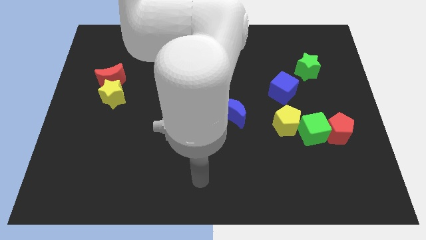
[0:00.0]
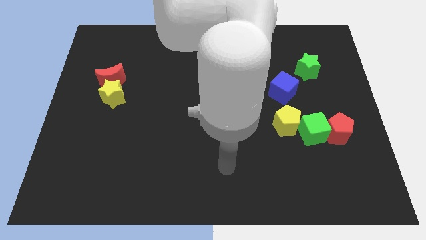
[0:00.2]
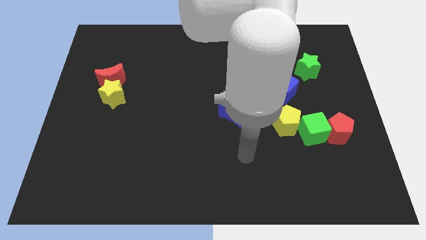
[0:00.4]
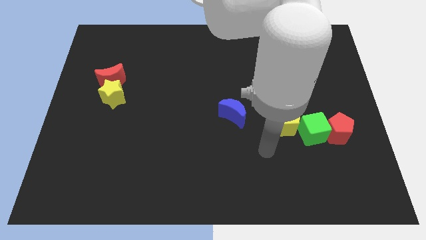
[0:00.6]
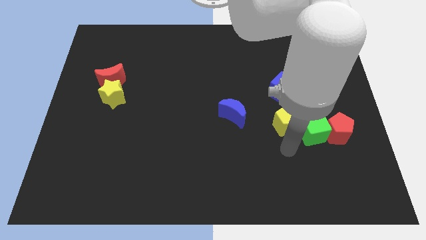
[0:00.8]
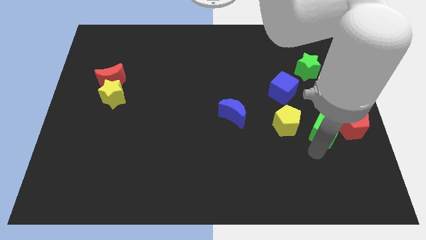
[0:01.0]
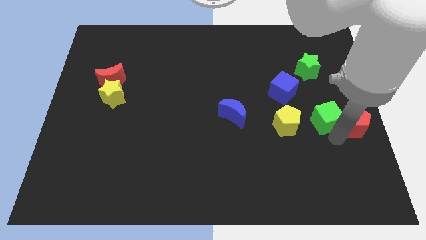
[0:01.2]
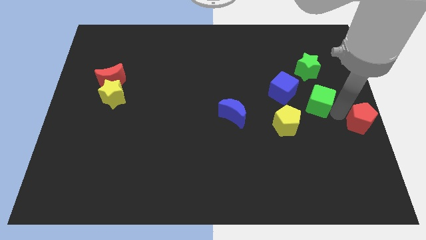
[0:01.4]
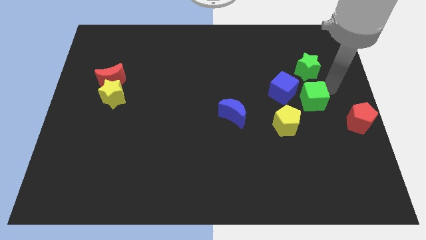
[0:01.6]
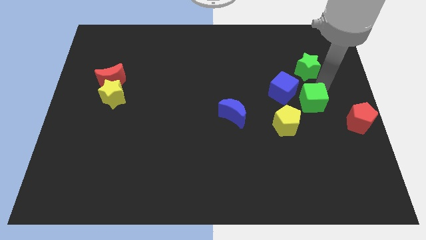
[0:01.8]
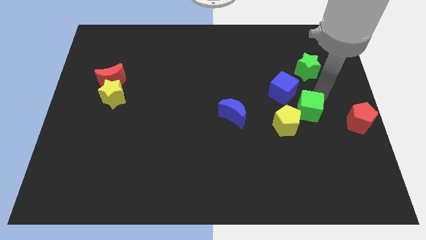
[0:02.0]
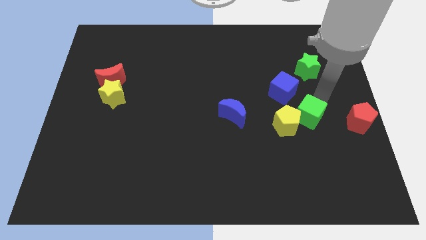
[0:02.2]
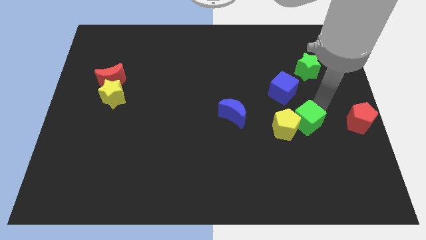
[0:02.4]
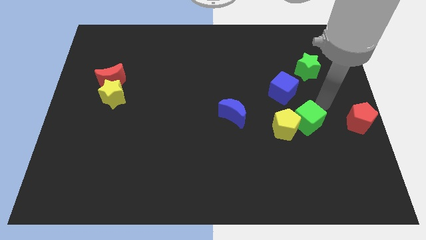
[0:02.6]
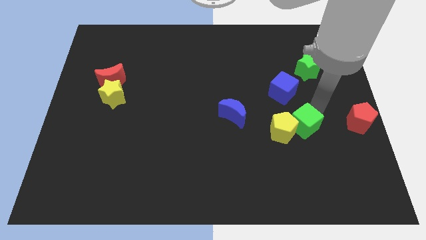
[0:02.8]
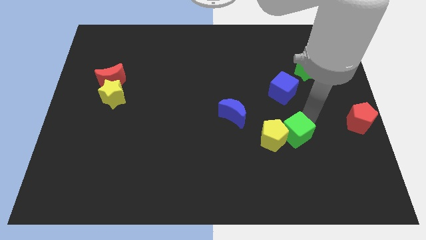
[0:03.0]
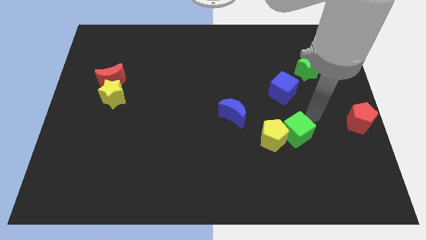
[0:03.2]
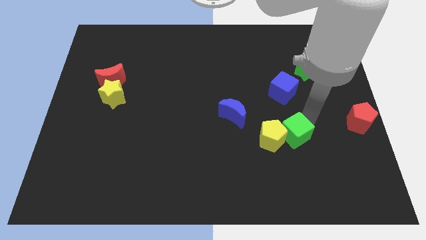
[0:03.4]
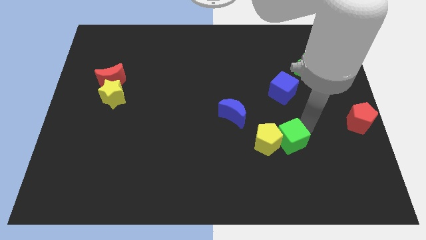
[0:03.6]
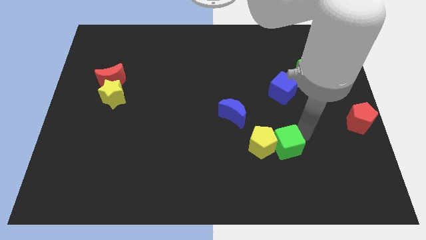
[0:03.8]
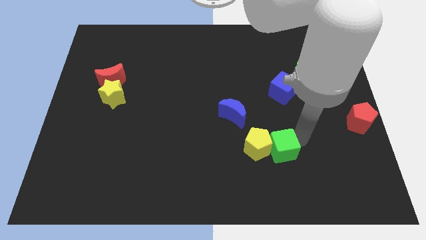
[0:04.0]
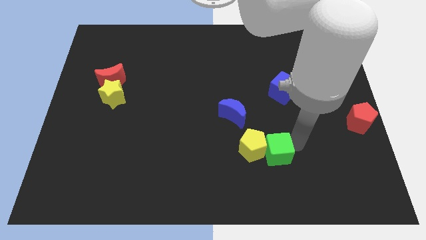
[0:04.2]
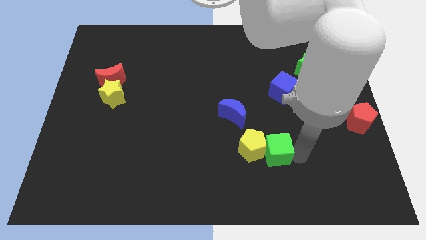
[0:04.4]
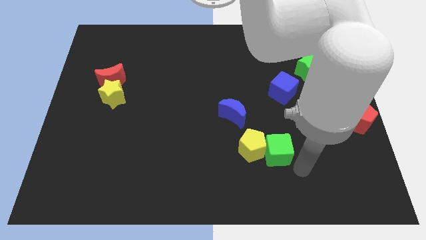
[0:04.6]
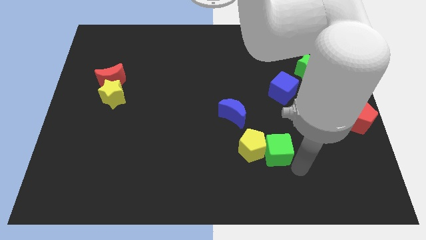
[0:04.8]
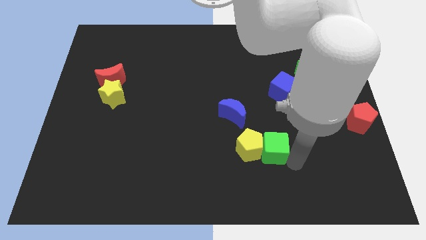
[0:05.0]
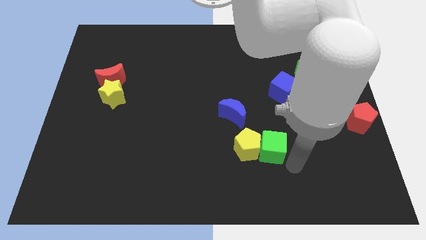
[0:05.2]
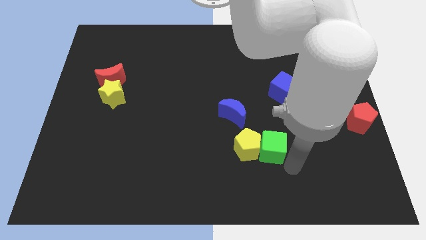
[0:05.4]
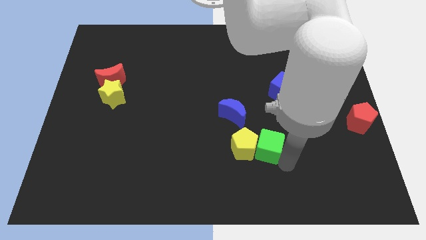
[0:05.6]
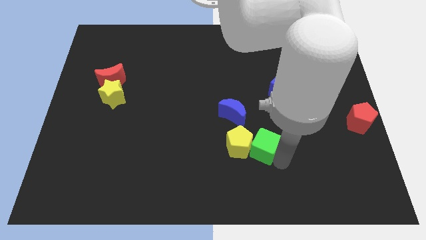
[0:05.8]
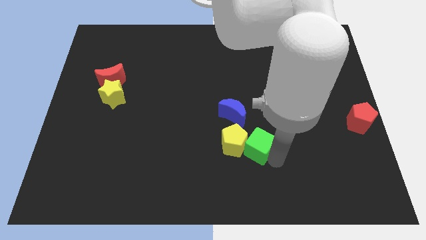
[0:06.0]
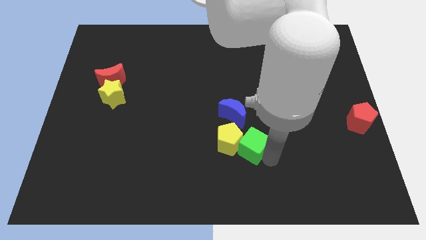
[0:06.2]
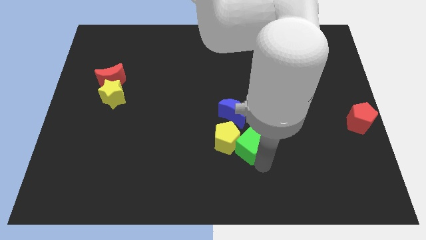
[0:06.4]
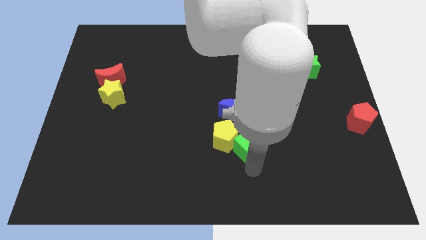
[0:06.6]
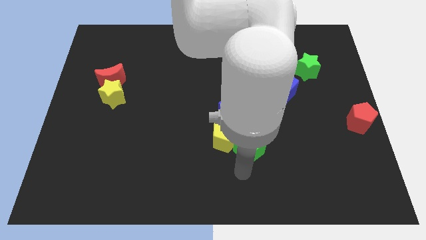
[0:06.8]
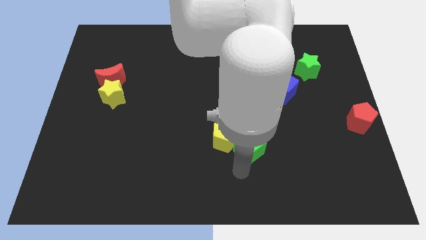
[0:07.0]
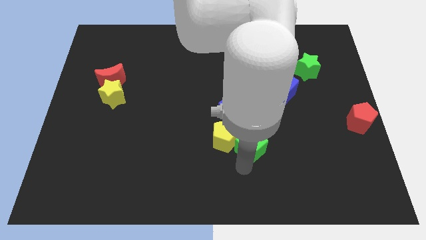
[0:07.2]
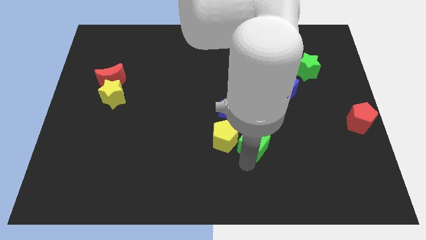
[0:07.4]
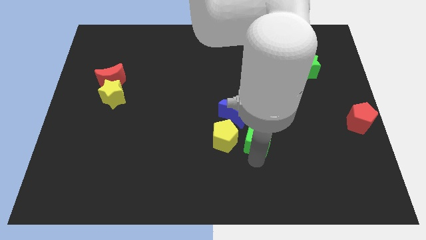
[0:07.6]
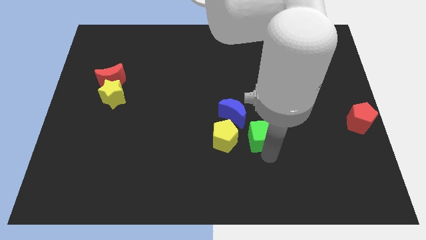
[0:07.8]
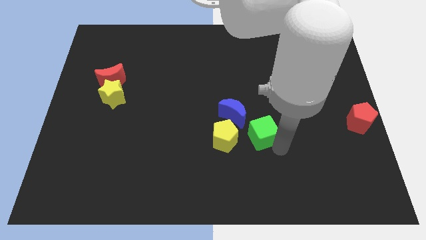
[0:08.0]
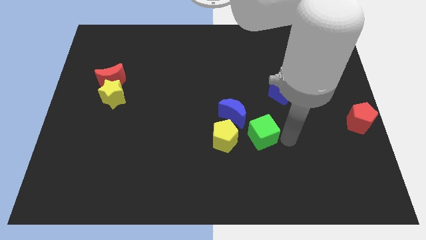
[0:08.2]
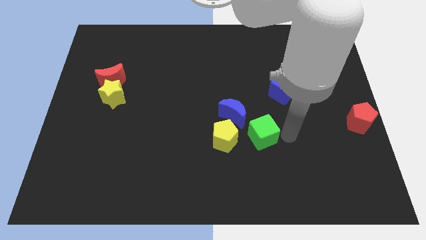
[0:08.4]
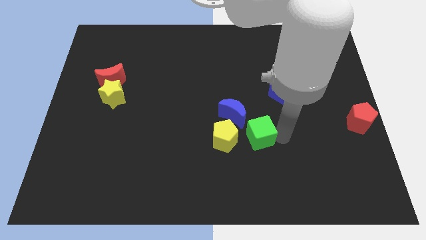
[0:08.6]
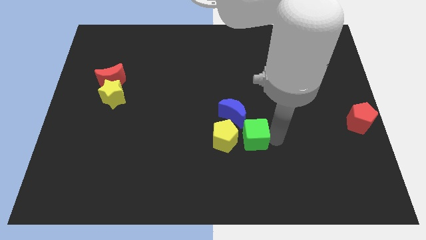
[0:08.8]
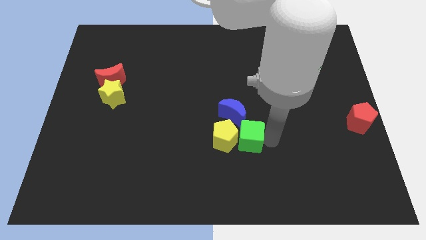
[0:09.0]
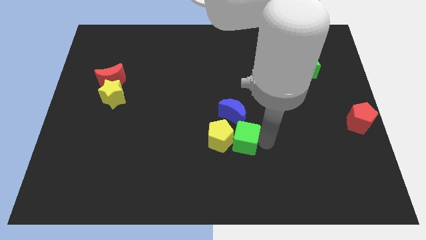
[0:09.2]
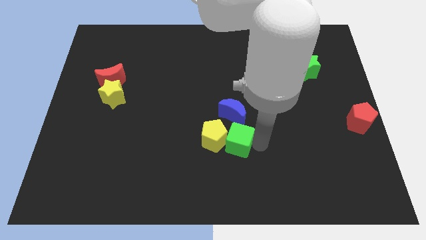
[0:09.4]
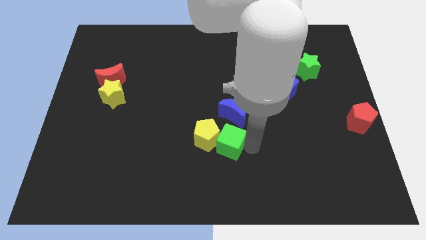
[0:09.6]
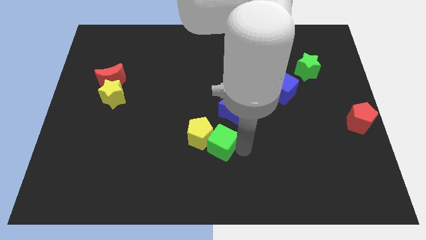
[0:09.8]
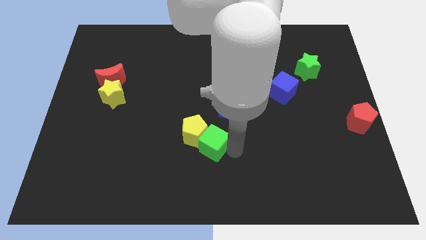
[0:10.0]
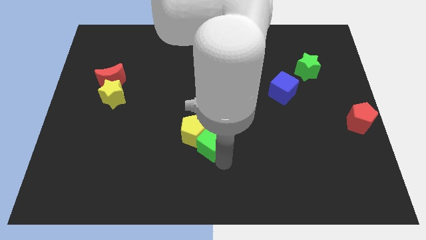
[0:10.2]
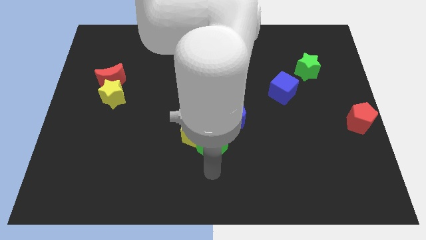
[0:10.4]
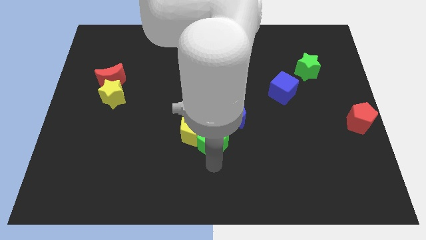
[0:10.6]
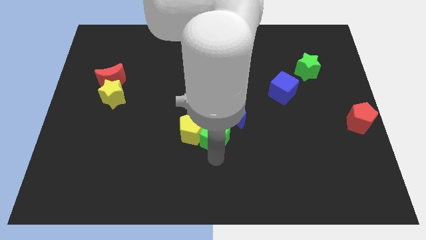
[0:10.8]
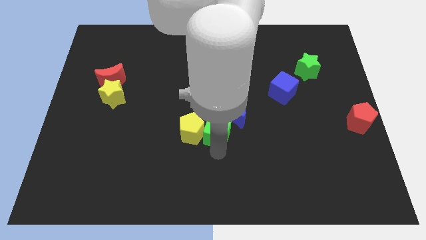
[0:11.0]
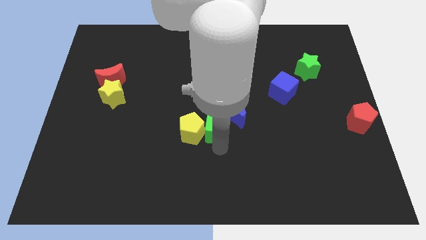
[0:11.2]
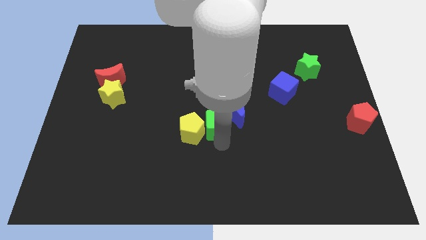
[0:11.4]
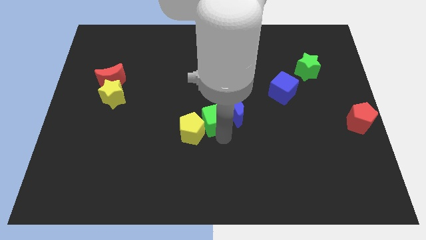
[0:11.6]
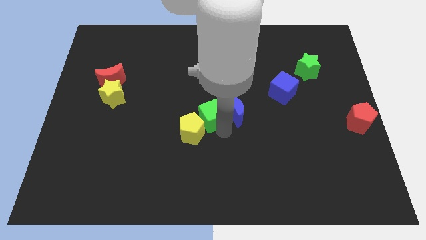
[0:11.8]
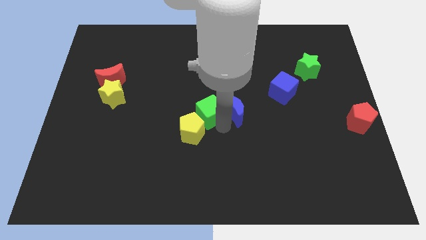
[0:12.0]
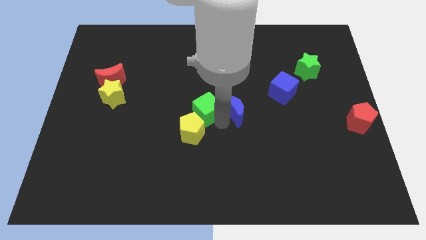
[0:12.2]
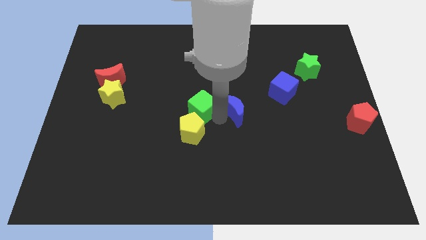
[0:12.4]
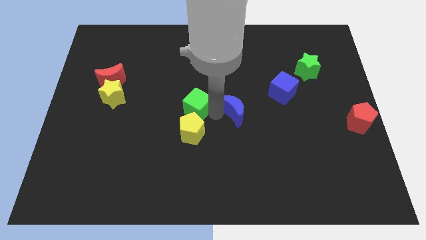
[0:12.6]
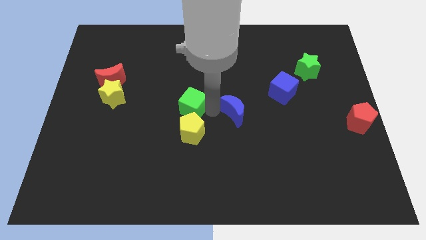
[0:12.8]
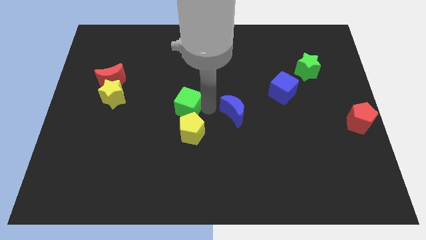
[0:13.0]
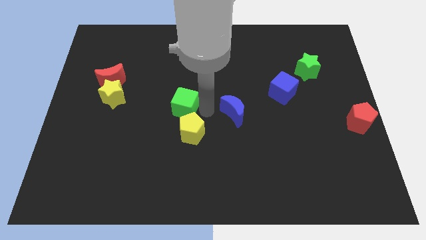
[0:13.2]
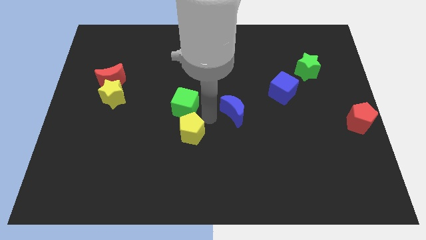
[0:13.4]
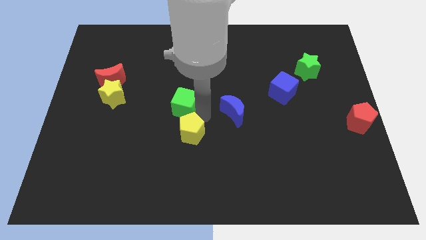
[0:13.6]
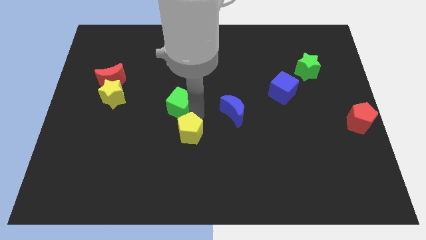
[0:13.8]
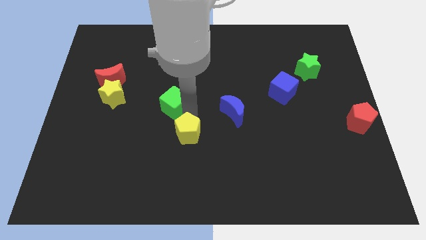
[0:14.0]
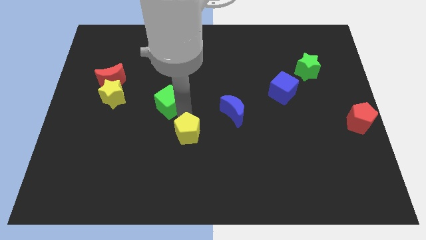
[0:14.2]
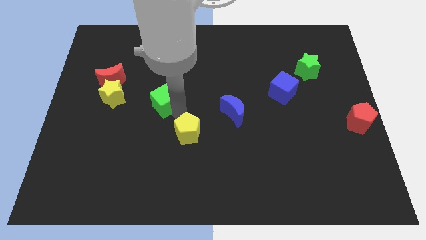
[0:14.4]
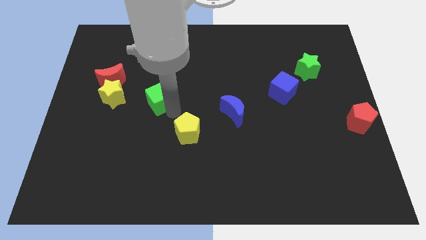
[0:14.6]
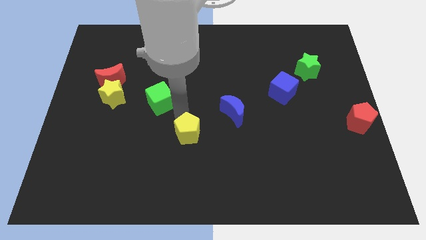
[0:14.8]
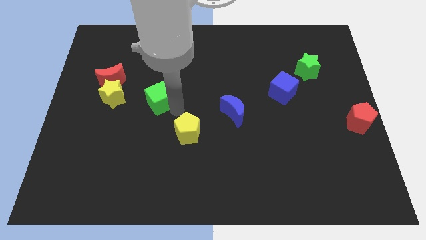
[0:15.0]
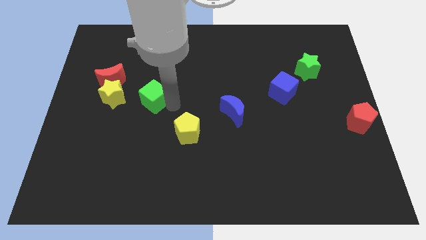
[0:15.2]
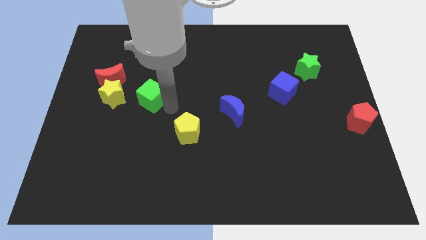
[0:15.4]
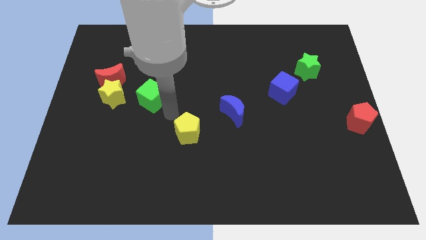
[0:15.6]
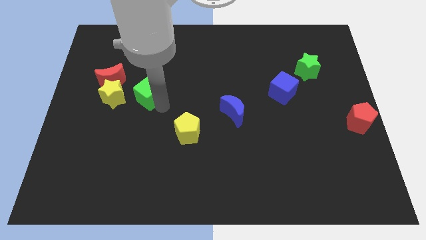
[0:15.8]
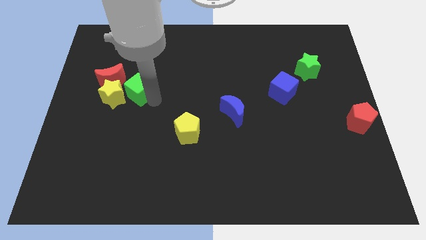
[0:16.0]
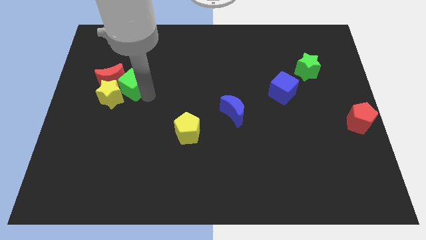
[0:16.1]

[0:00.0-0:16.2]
slide the green cube to the red moon
